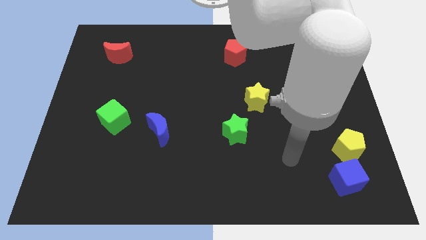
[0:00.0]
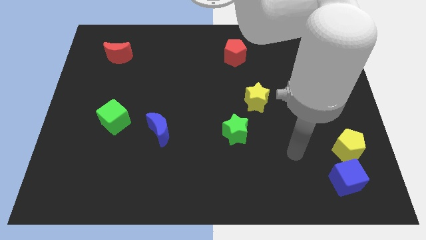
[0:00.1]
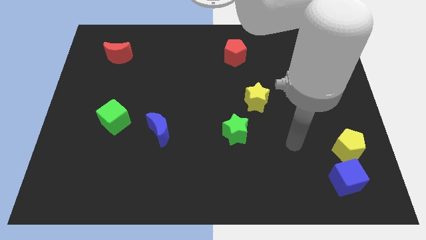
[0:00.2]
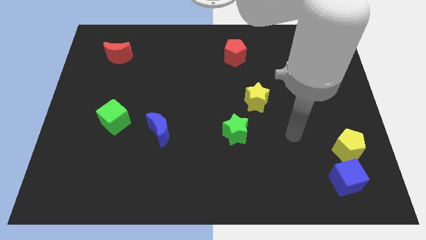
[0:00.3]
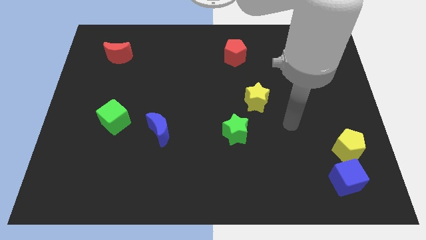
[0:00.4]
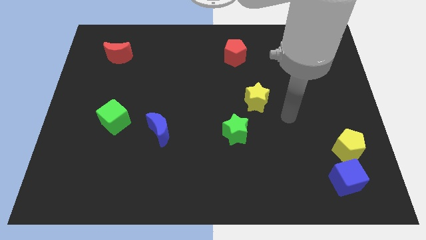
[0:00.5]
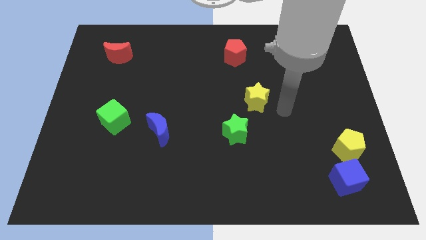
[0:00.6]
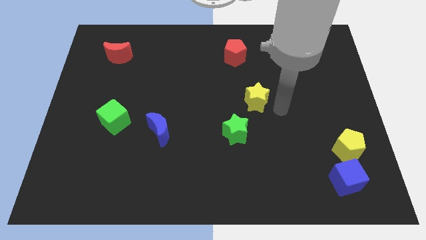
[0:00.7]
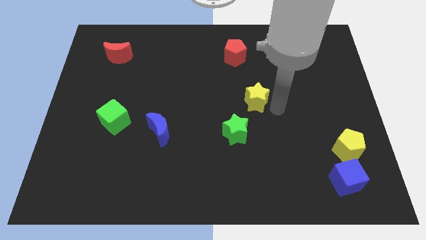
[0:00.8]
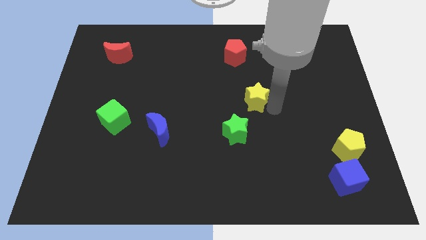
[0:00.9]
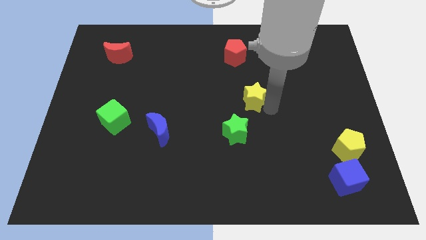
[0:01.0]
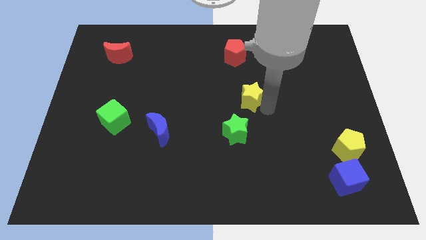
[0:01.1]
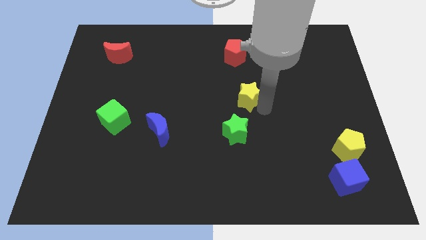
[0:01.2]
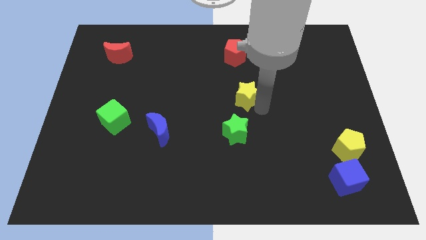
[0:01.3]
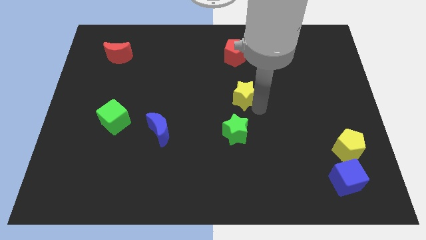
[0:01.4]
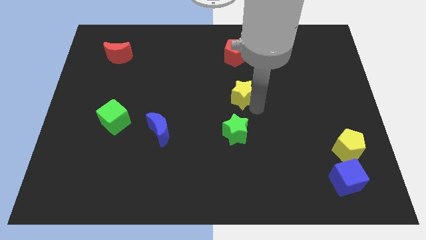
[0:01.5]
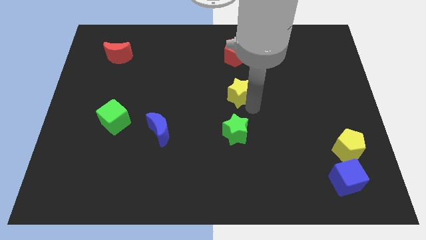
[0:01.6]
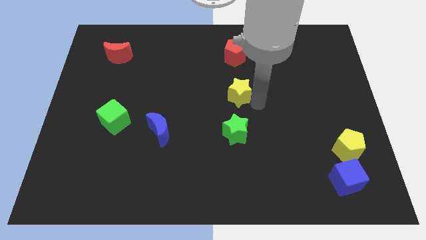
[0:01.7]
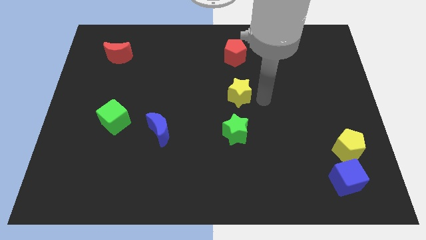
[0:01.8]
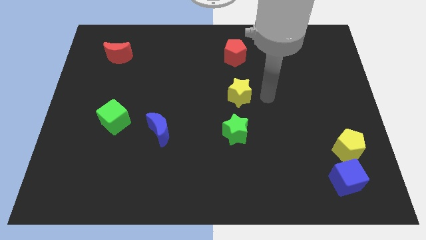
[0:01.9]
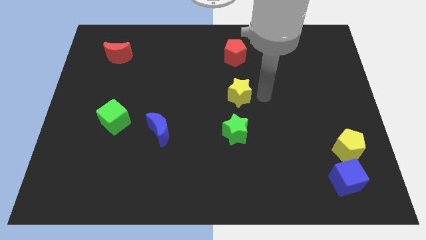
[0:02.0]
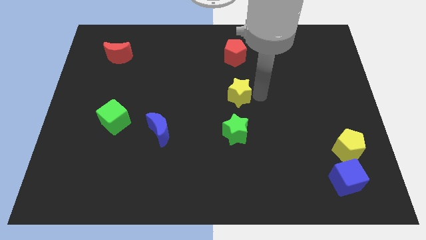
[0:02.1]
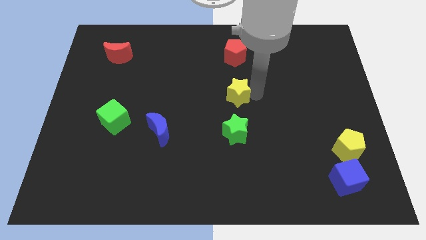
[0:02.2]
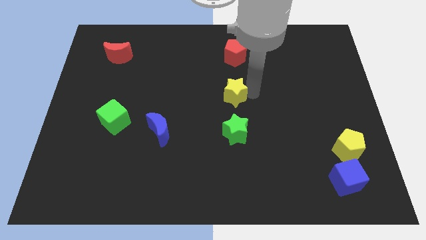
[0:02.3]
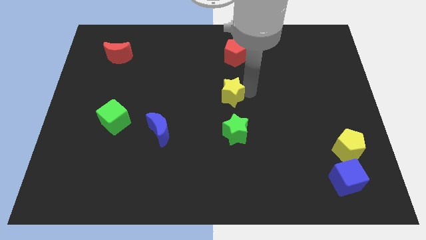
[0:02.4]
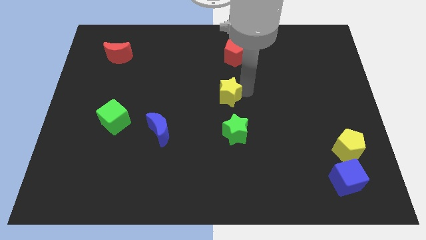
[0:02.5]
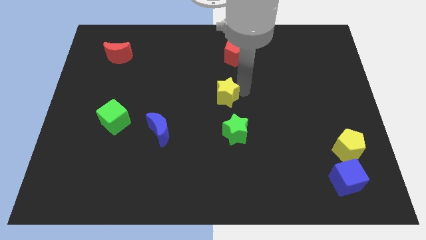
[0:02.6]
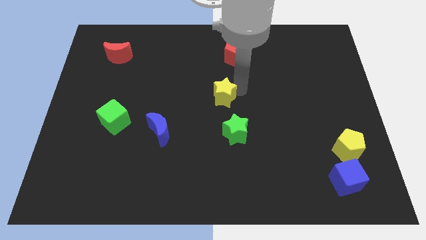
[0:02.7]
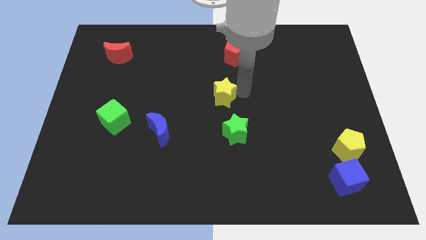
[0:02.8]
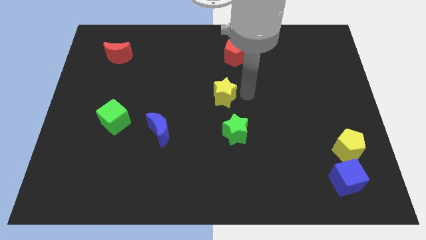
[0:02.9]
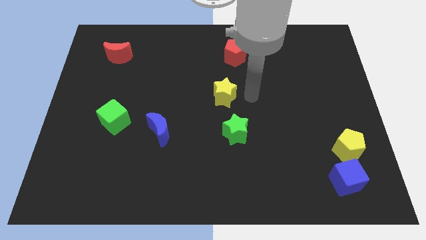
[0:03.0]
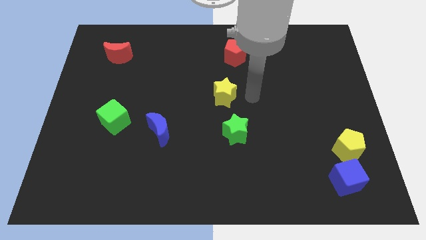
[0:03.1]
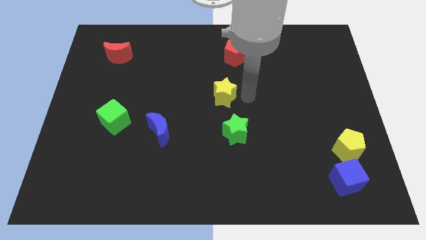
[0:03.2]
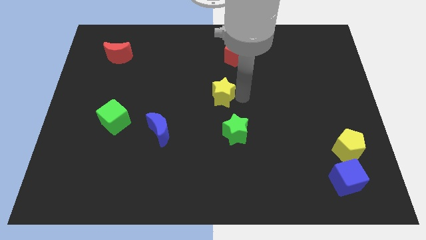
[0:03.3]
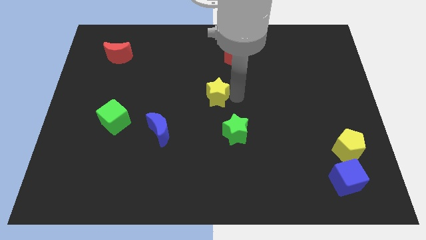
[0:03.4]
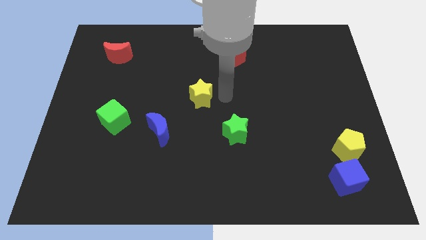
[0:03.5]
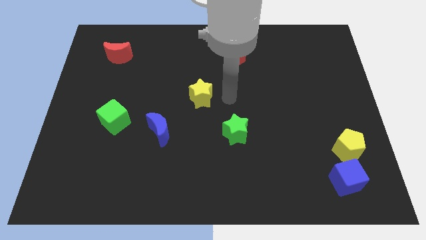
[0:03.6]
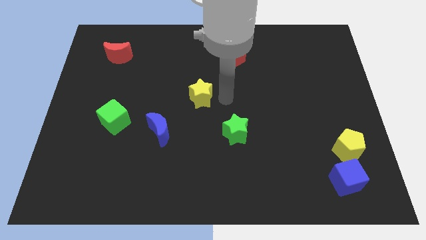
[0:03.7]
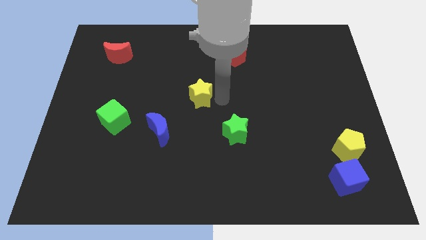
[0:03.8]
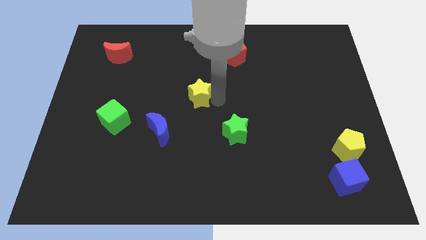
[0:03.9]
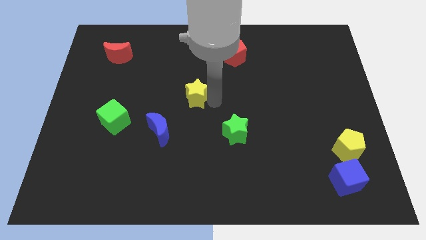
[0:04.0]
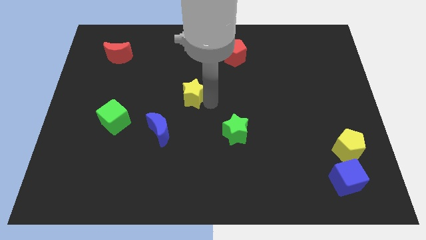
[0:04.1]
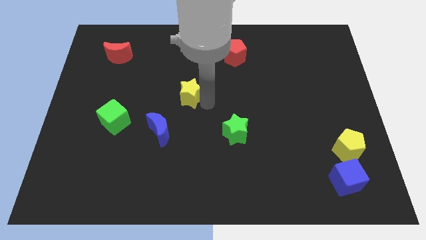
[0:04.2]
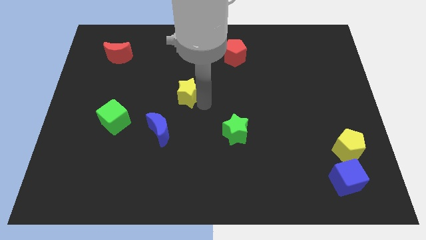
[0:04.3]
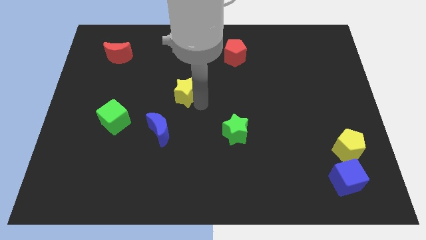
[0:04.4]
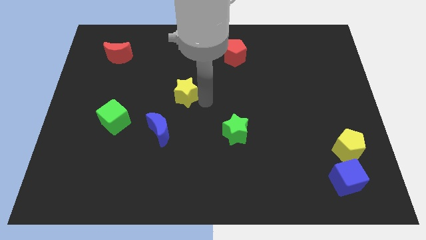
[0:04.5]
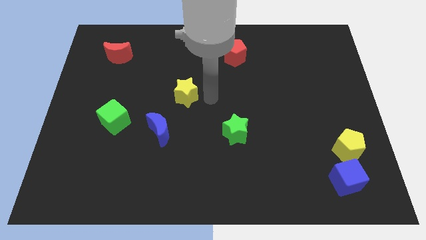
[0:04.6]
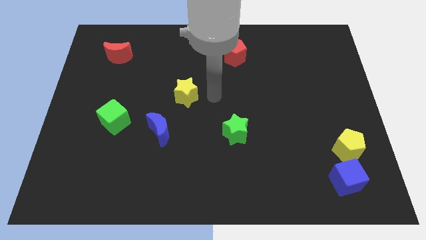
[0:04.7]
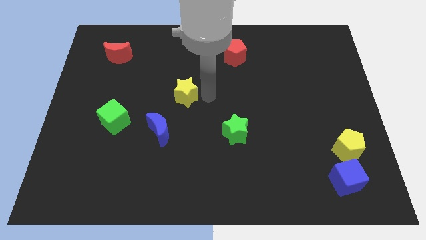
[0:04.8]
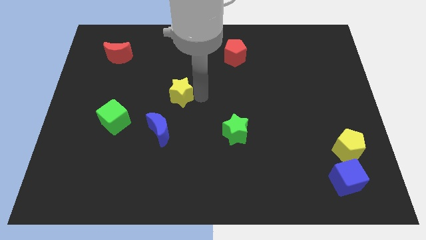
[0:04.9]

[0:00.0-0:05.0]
move the yellow star to the top side of the blue moon

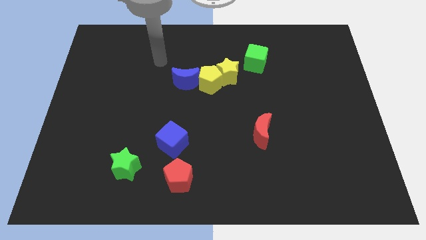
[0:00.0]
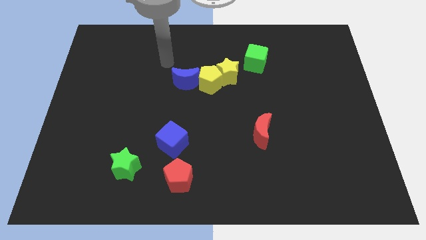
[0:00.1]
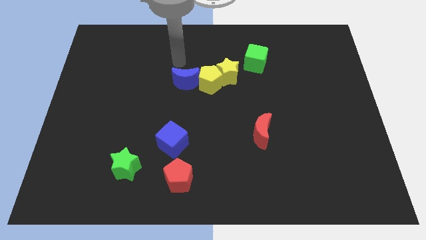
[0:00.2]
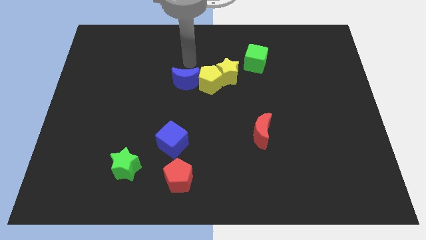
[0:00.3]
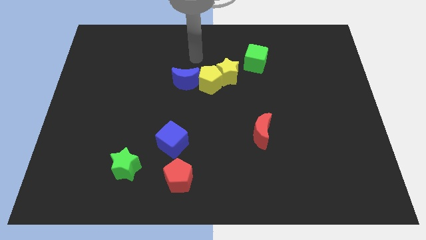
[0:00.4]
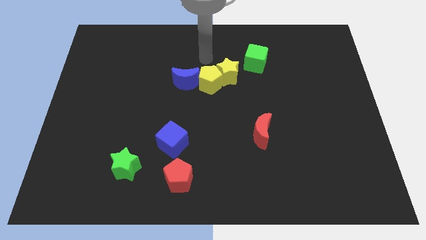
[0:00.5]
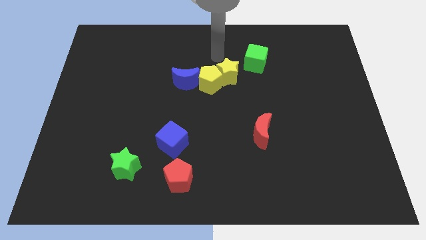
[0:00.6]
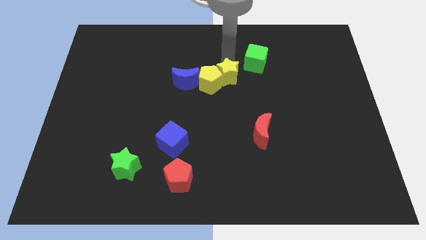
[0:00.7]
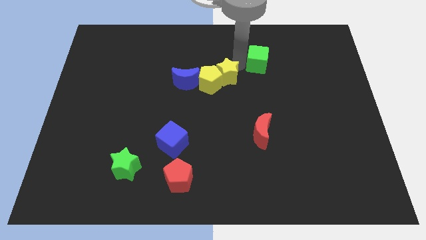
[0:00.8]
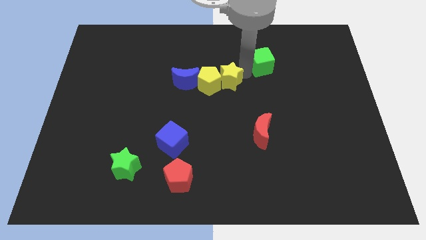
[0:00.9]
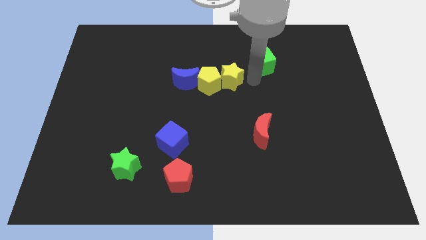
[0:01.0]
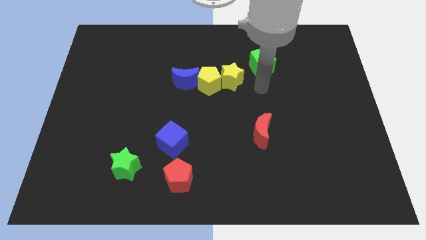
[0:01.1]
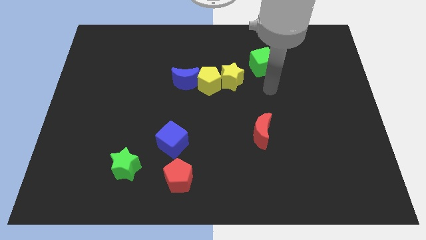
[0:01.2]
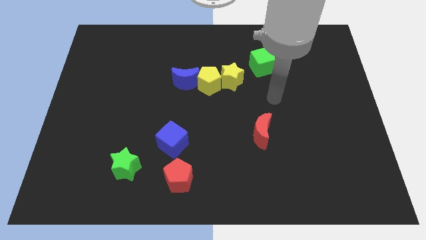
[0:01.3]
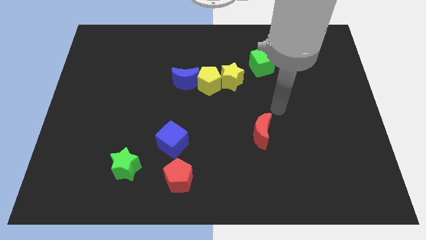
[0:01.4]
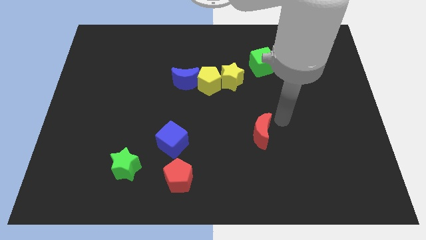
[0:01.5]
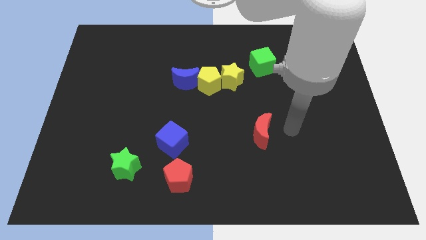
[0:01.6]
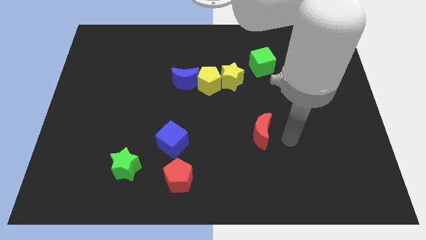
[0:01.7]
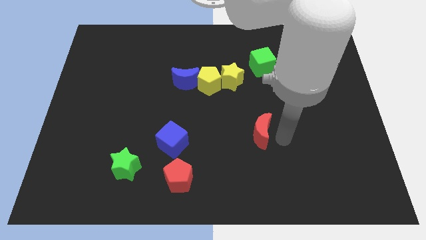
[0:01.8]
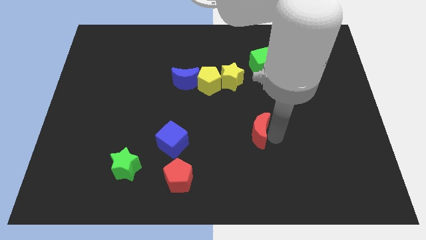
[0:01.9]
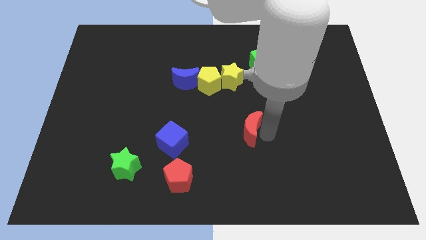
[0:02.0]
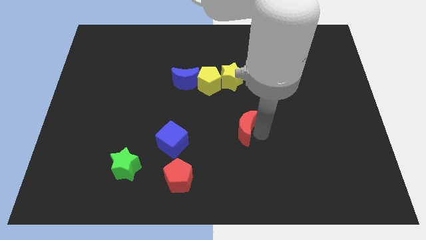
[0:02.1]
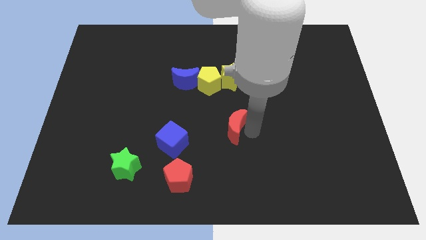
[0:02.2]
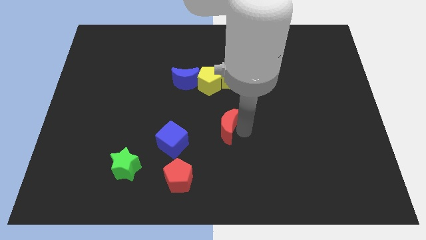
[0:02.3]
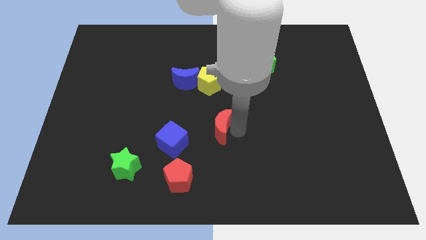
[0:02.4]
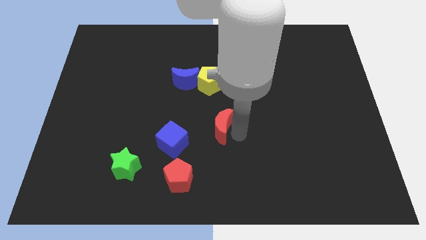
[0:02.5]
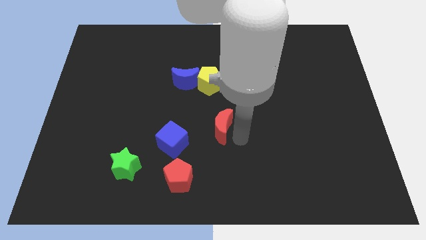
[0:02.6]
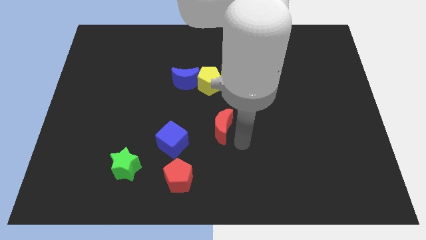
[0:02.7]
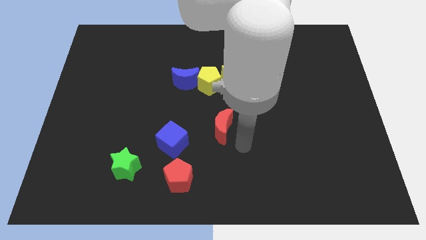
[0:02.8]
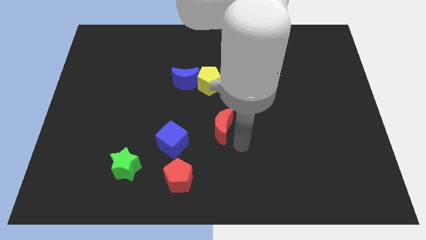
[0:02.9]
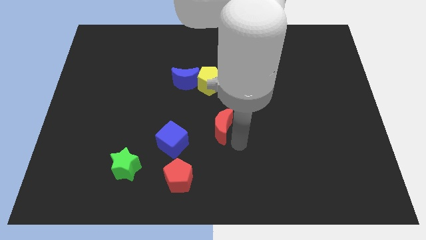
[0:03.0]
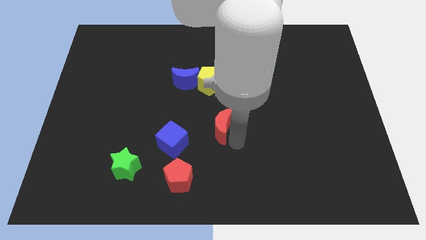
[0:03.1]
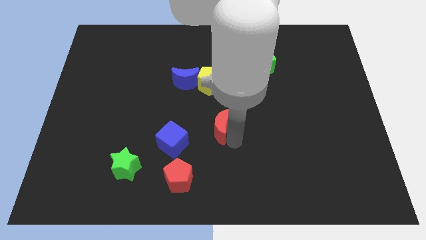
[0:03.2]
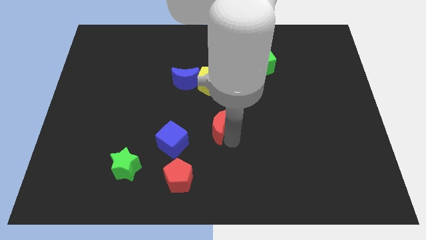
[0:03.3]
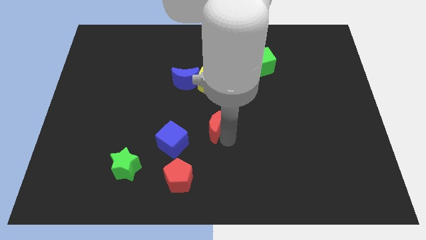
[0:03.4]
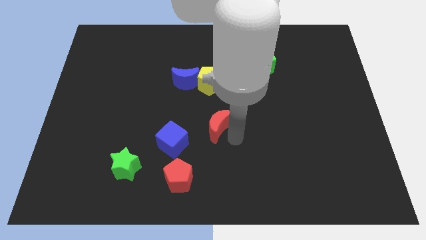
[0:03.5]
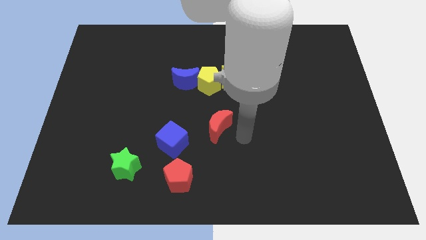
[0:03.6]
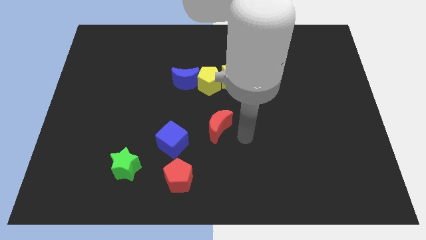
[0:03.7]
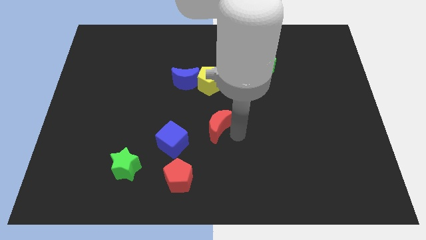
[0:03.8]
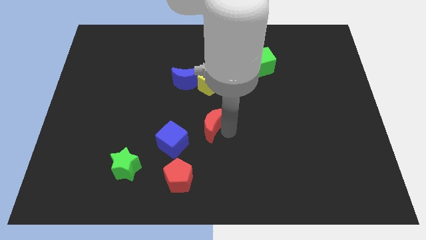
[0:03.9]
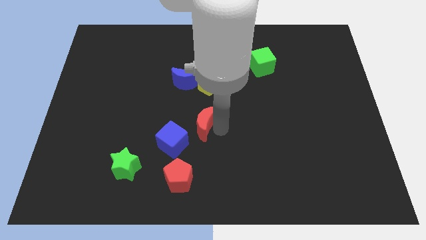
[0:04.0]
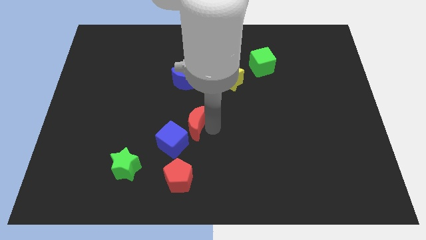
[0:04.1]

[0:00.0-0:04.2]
move the red moon to the bottom side of the blue moon
